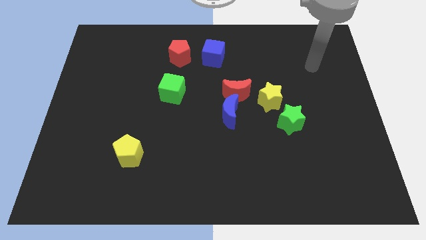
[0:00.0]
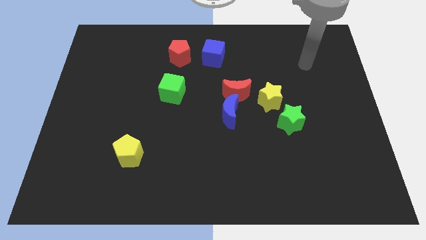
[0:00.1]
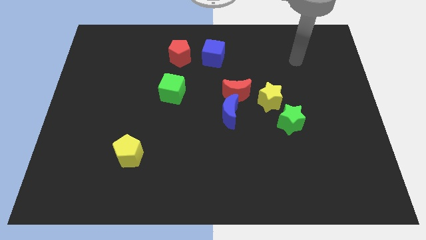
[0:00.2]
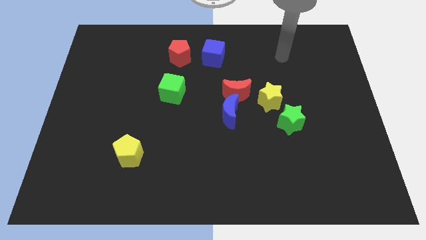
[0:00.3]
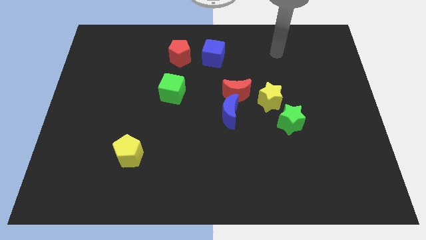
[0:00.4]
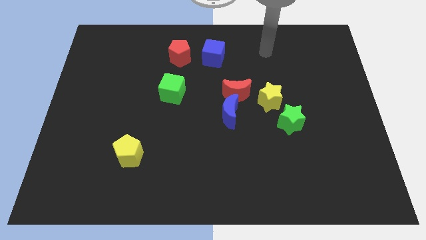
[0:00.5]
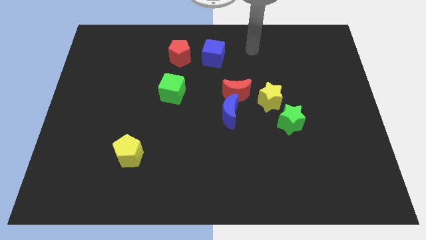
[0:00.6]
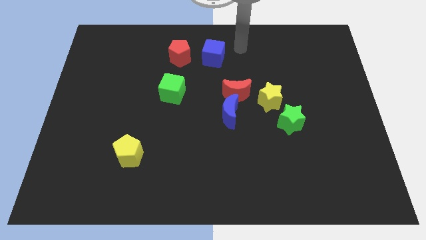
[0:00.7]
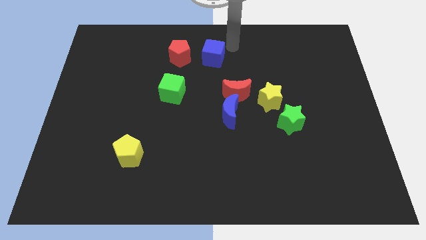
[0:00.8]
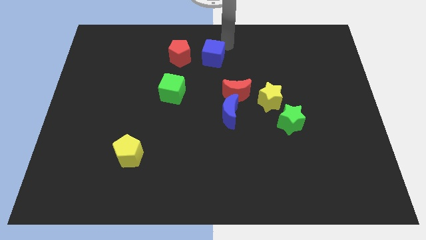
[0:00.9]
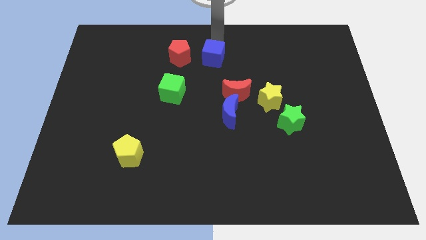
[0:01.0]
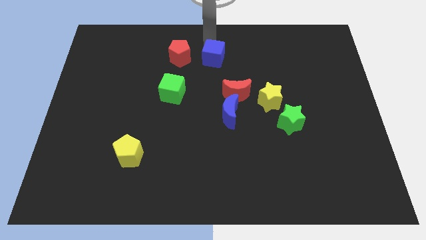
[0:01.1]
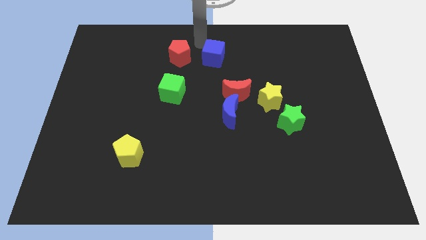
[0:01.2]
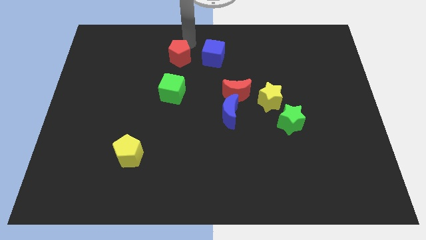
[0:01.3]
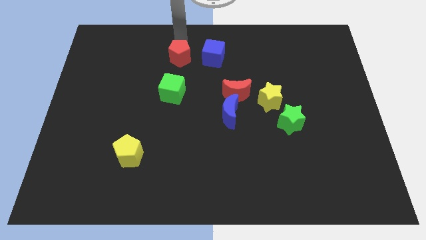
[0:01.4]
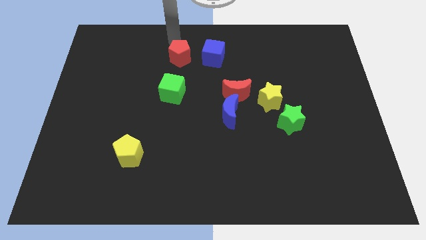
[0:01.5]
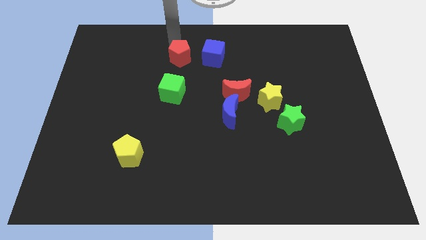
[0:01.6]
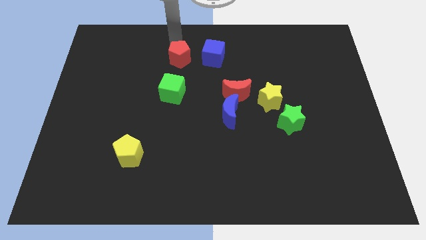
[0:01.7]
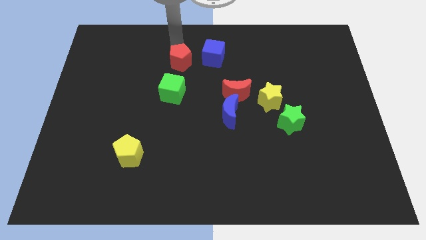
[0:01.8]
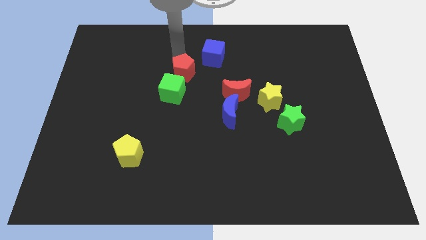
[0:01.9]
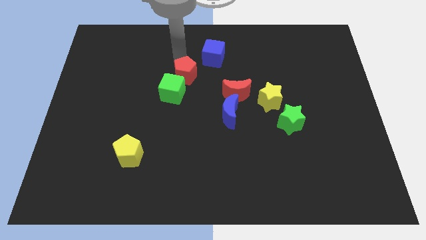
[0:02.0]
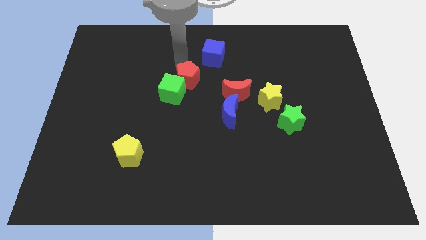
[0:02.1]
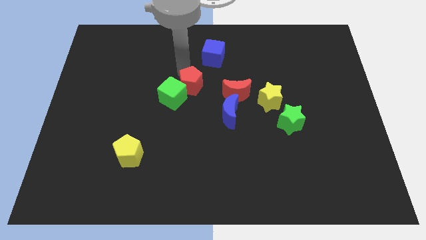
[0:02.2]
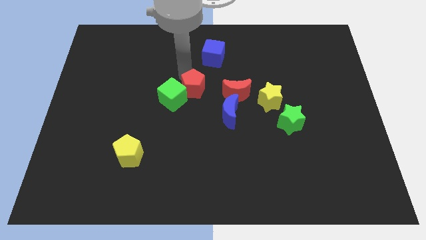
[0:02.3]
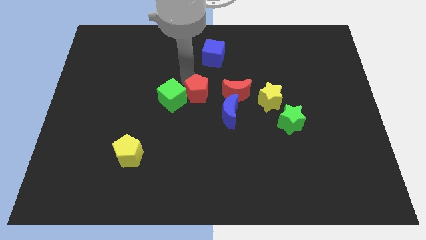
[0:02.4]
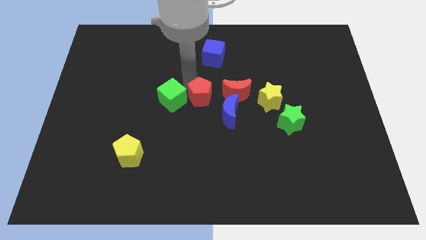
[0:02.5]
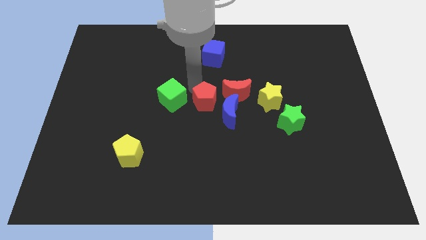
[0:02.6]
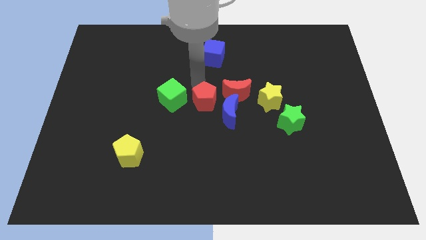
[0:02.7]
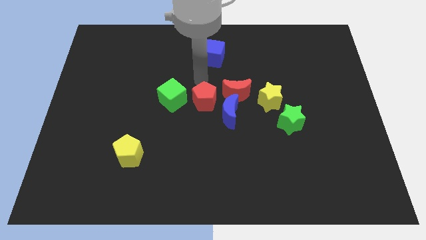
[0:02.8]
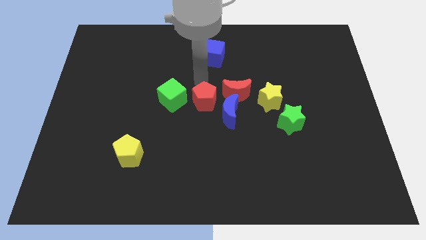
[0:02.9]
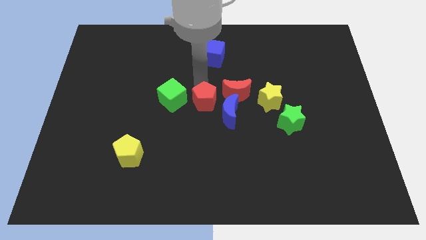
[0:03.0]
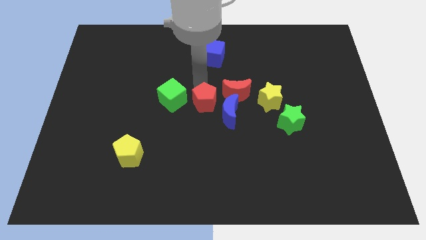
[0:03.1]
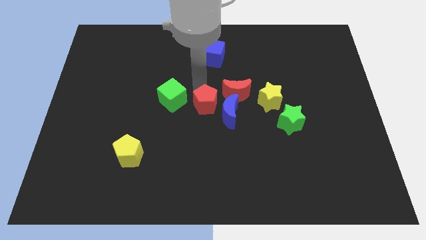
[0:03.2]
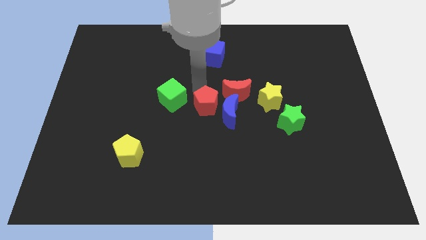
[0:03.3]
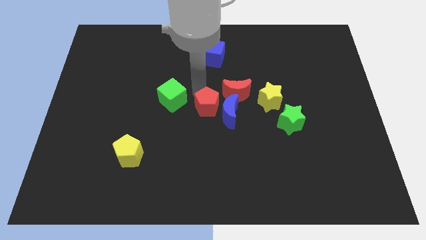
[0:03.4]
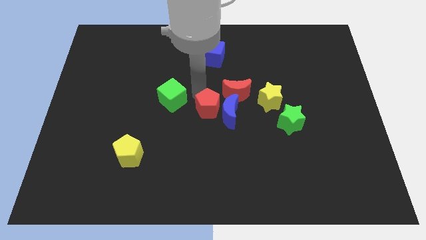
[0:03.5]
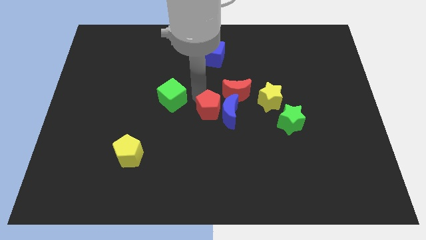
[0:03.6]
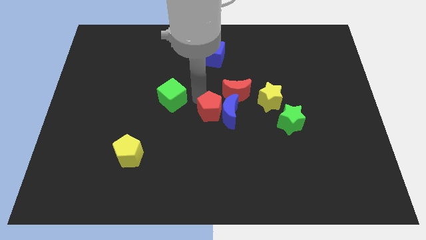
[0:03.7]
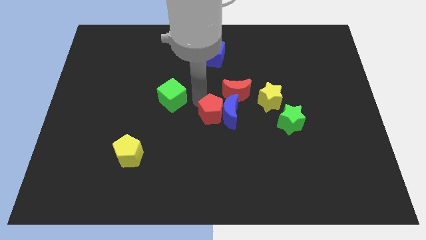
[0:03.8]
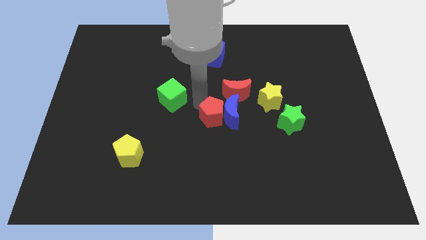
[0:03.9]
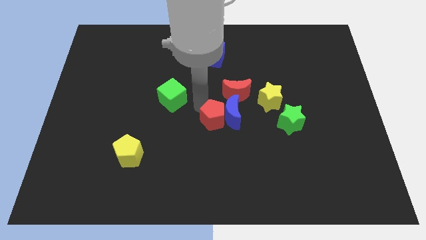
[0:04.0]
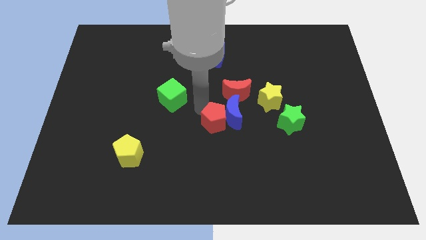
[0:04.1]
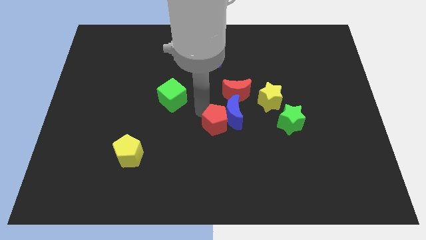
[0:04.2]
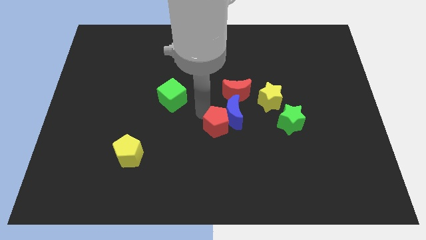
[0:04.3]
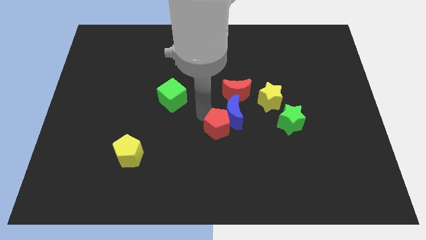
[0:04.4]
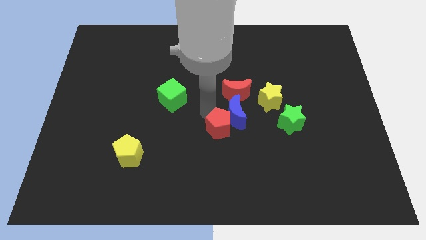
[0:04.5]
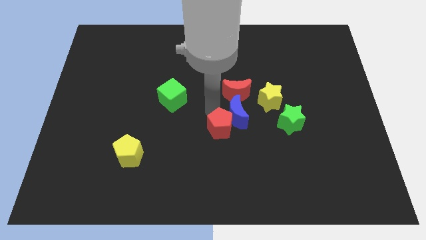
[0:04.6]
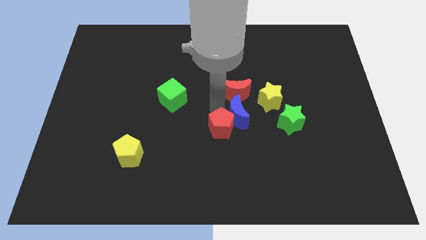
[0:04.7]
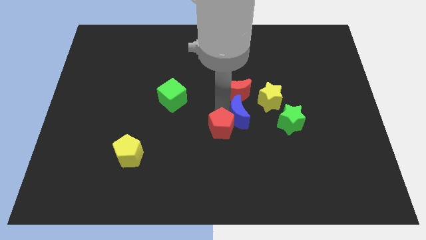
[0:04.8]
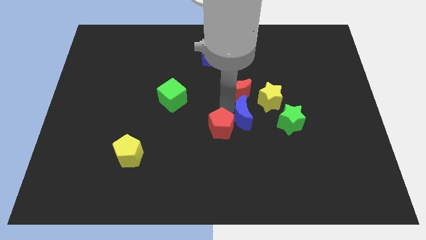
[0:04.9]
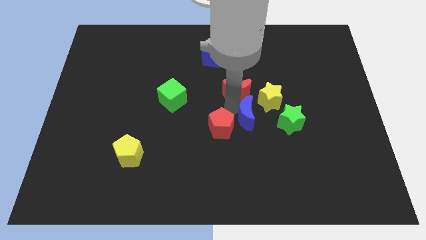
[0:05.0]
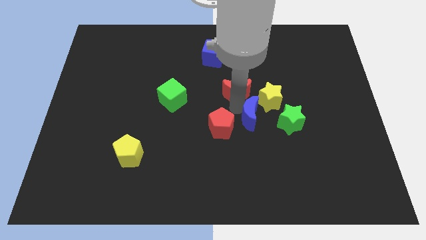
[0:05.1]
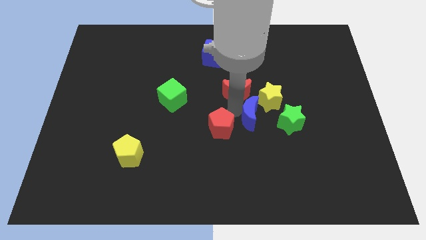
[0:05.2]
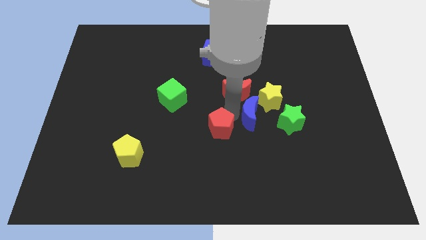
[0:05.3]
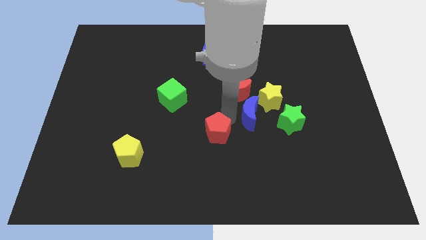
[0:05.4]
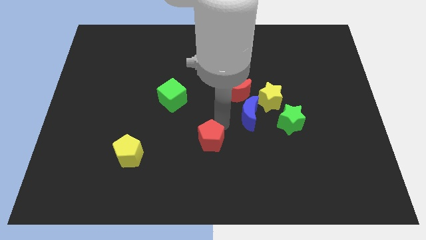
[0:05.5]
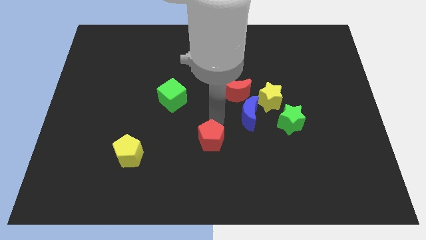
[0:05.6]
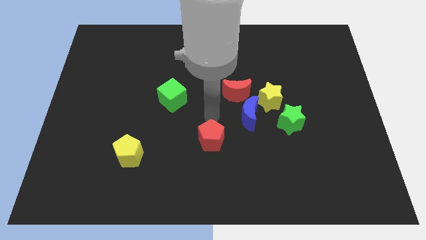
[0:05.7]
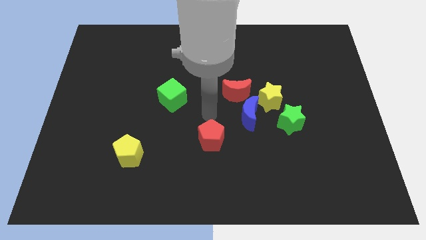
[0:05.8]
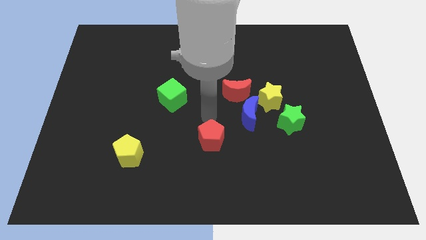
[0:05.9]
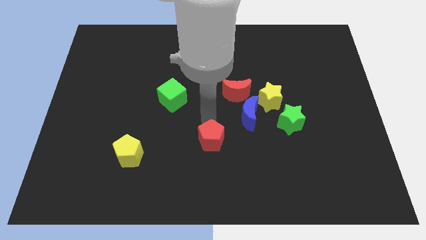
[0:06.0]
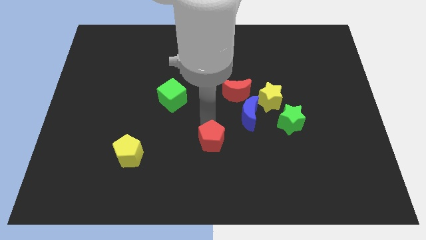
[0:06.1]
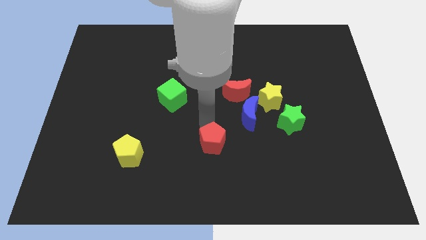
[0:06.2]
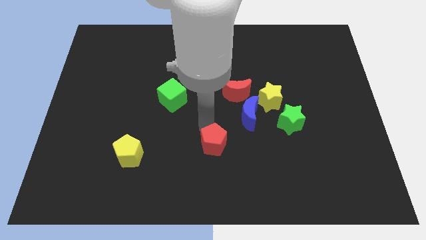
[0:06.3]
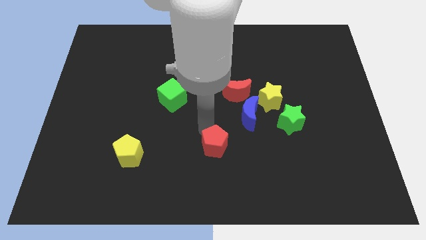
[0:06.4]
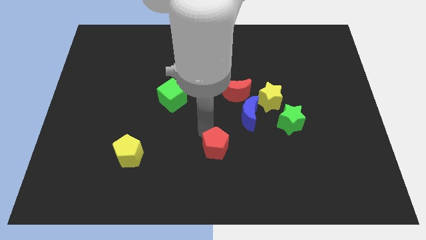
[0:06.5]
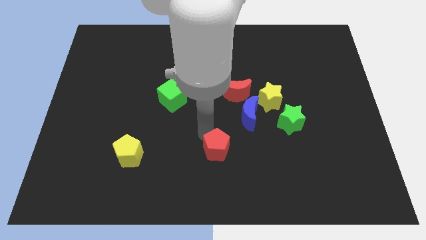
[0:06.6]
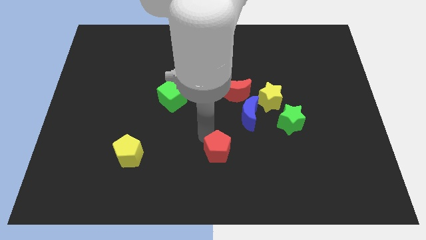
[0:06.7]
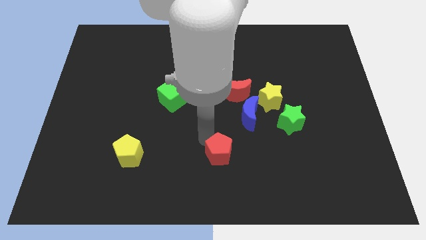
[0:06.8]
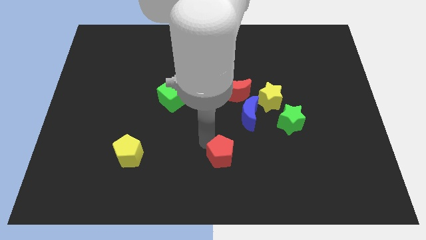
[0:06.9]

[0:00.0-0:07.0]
put the red pentagon to the bottom
